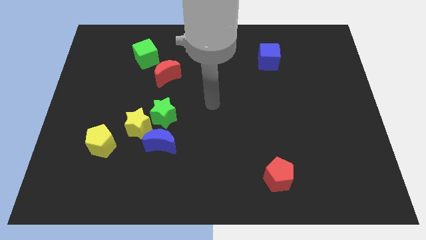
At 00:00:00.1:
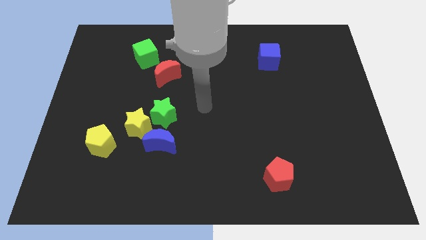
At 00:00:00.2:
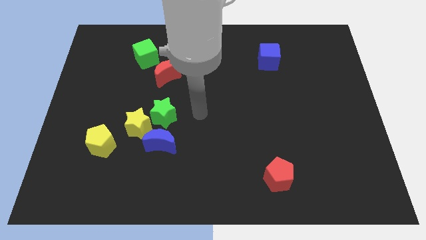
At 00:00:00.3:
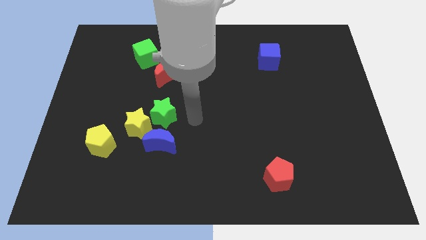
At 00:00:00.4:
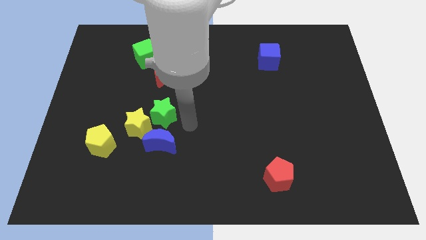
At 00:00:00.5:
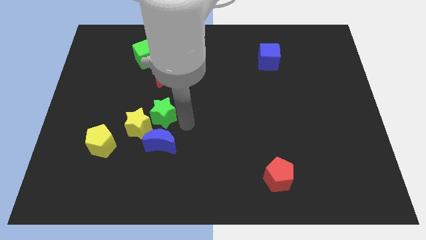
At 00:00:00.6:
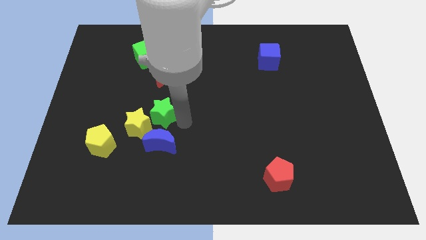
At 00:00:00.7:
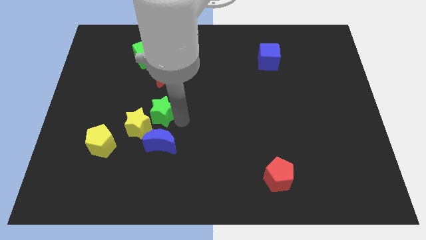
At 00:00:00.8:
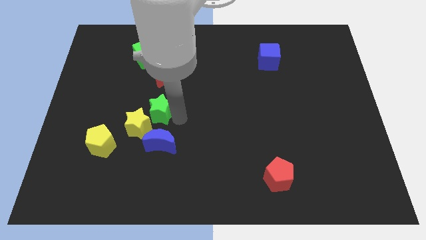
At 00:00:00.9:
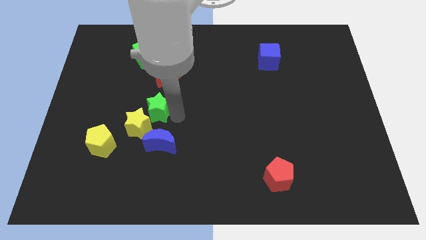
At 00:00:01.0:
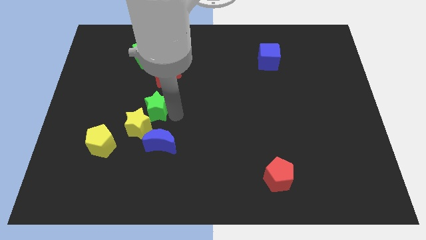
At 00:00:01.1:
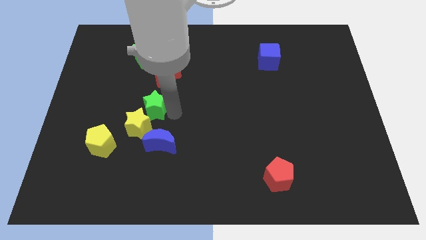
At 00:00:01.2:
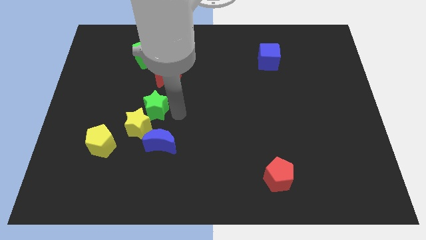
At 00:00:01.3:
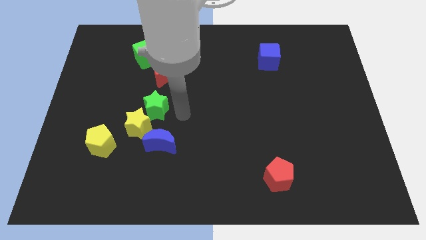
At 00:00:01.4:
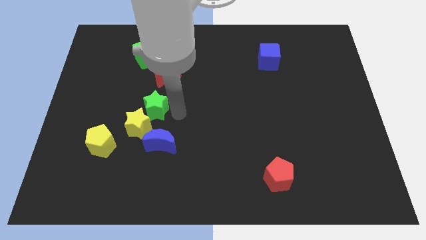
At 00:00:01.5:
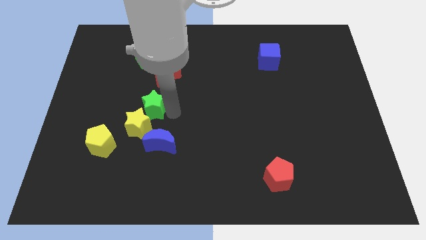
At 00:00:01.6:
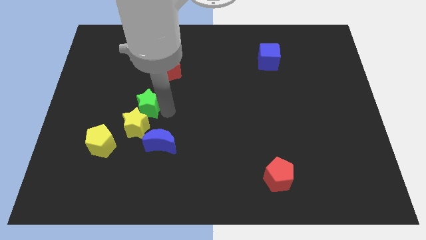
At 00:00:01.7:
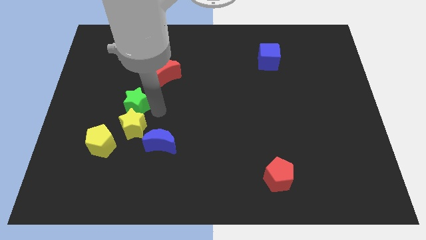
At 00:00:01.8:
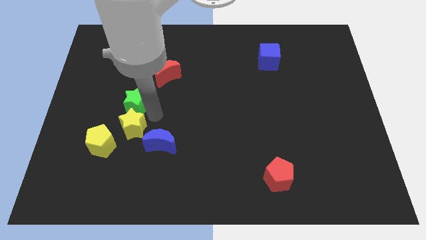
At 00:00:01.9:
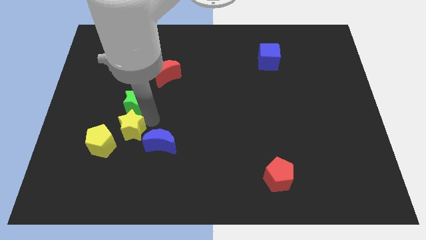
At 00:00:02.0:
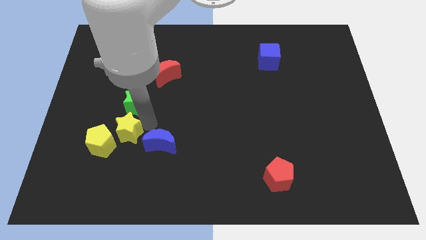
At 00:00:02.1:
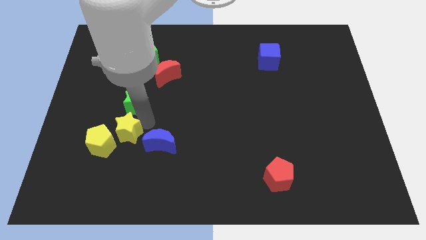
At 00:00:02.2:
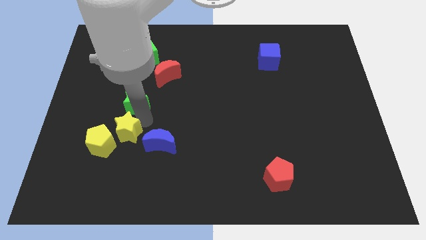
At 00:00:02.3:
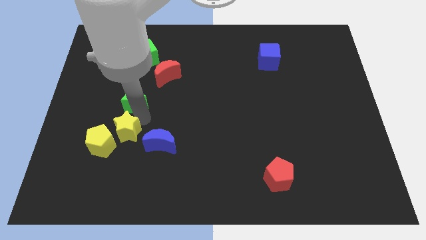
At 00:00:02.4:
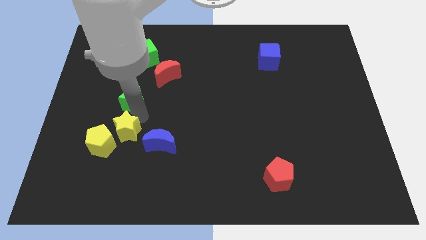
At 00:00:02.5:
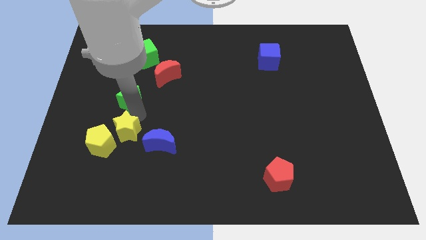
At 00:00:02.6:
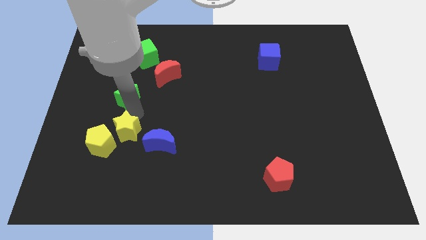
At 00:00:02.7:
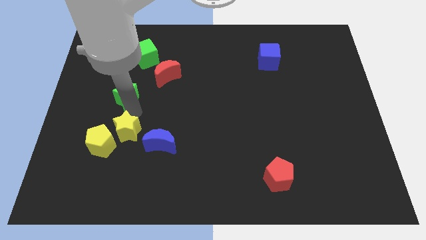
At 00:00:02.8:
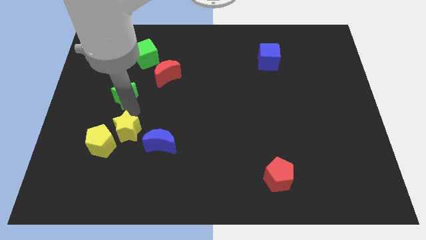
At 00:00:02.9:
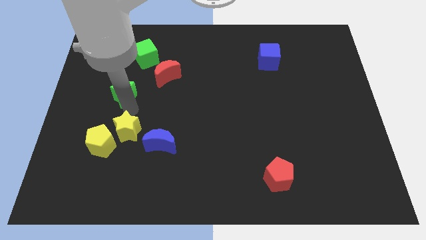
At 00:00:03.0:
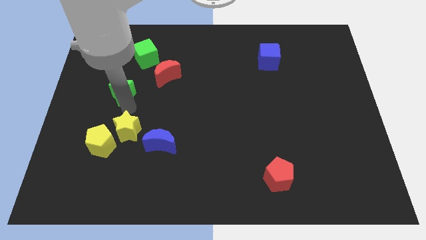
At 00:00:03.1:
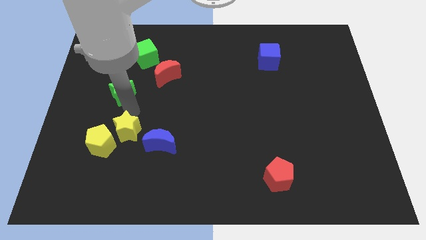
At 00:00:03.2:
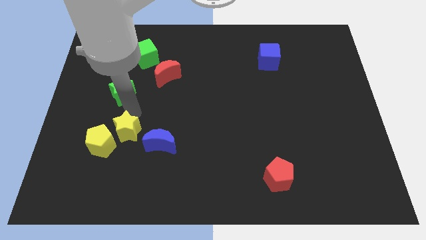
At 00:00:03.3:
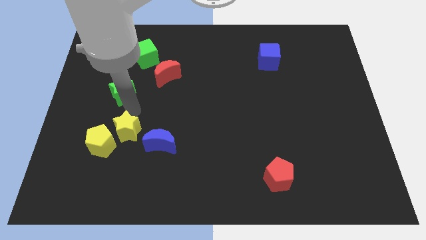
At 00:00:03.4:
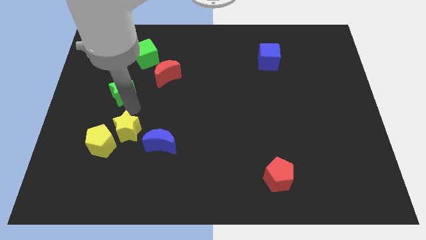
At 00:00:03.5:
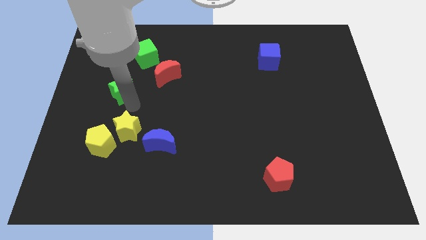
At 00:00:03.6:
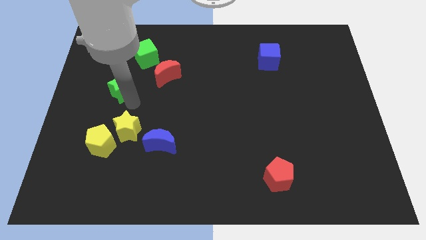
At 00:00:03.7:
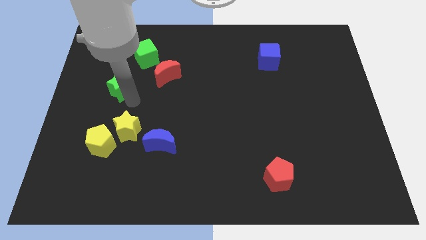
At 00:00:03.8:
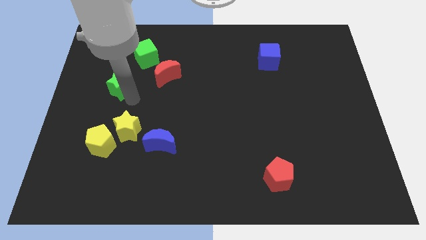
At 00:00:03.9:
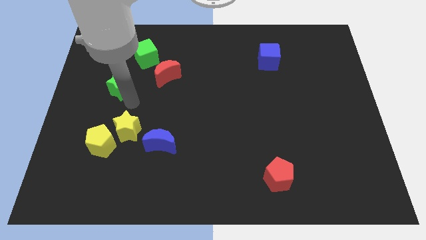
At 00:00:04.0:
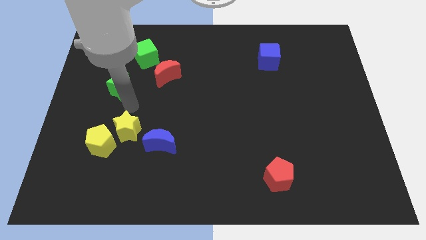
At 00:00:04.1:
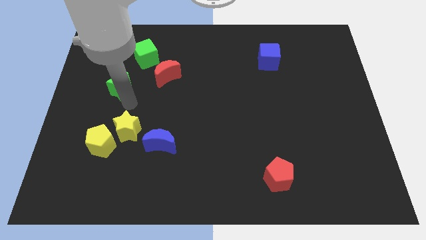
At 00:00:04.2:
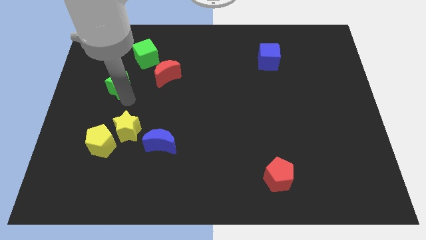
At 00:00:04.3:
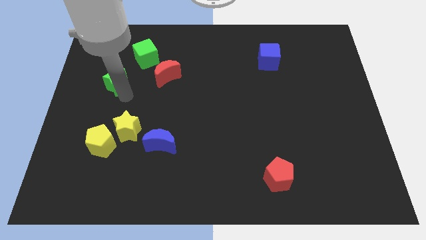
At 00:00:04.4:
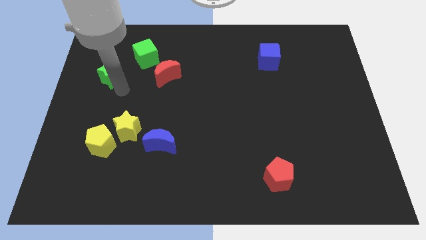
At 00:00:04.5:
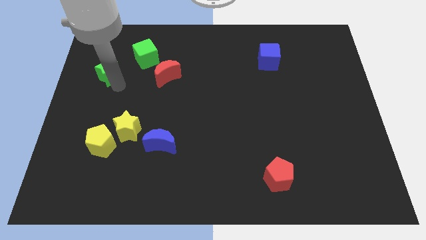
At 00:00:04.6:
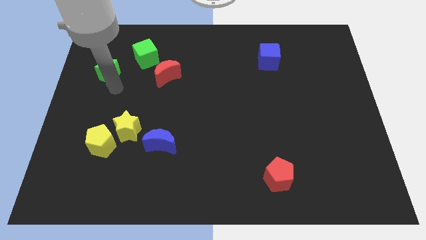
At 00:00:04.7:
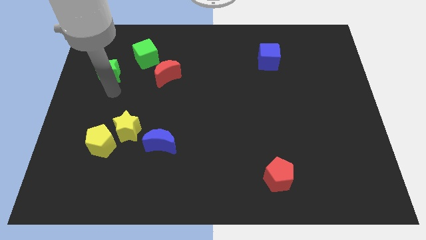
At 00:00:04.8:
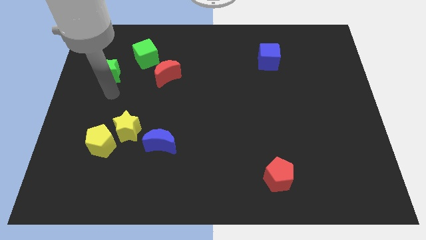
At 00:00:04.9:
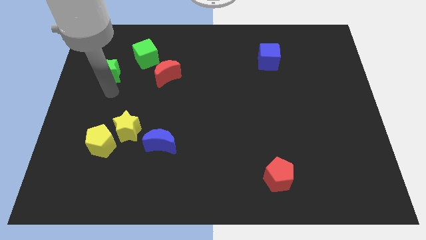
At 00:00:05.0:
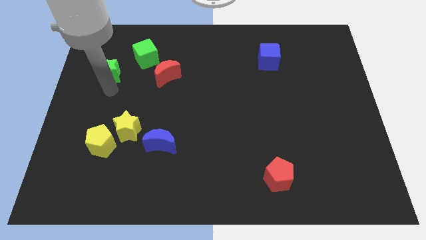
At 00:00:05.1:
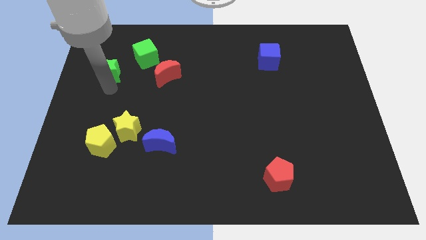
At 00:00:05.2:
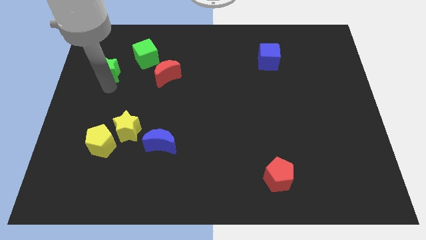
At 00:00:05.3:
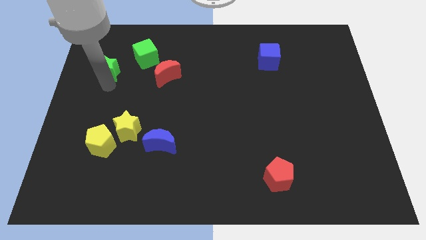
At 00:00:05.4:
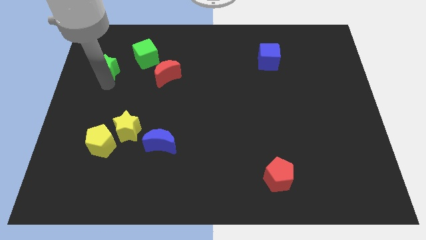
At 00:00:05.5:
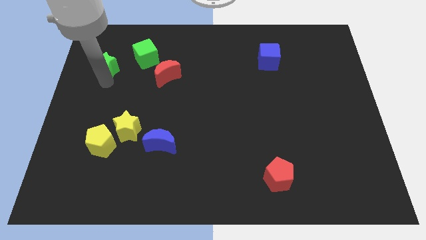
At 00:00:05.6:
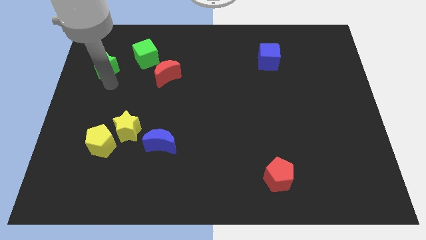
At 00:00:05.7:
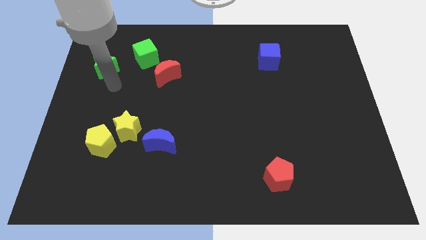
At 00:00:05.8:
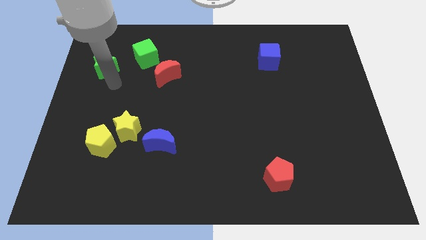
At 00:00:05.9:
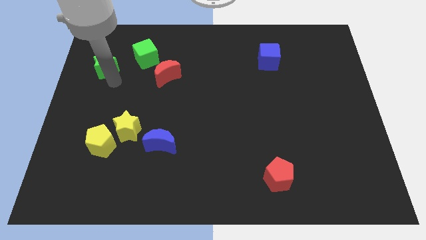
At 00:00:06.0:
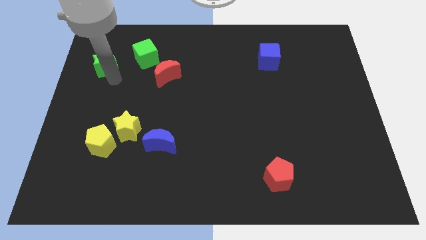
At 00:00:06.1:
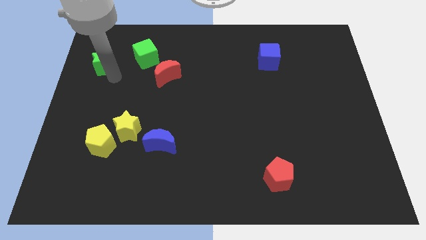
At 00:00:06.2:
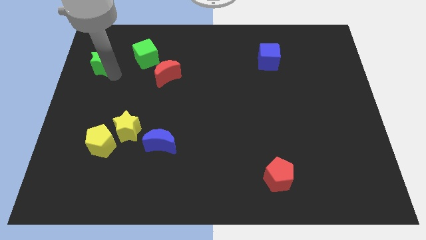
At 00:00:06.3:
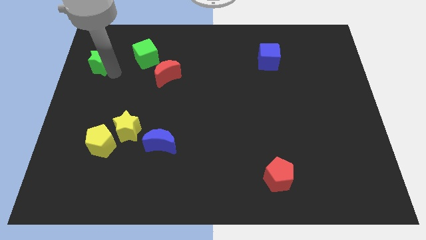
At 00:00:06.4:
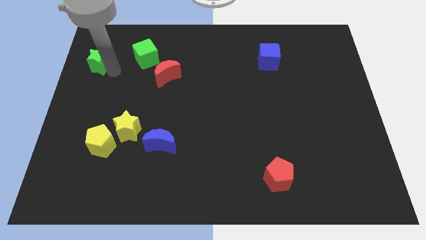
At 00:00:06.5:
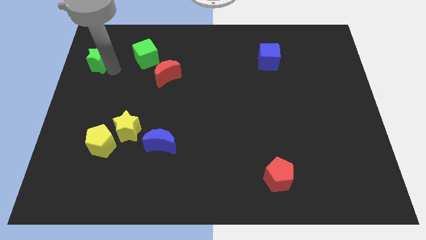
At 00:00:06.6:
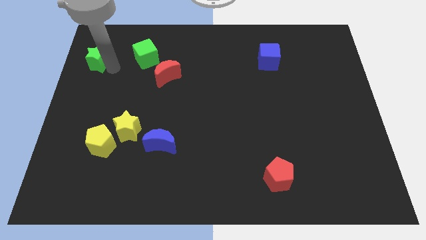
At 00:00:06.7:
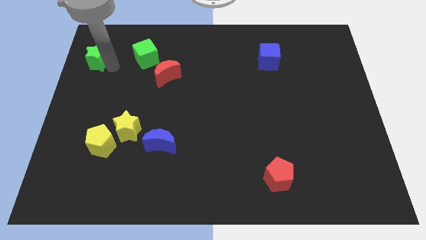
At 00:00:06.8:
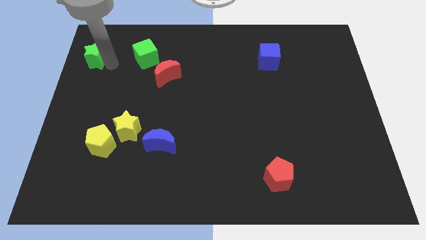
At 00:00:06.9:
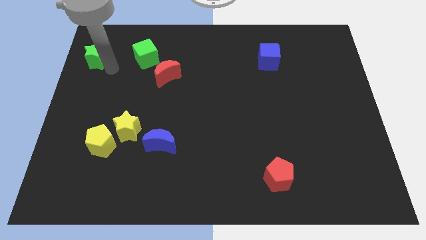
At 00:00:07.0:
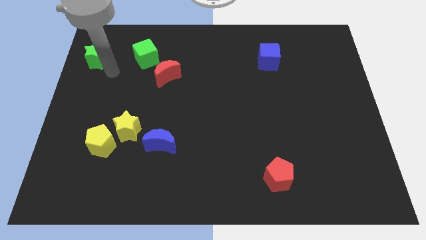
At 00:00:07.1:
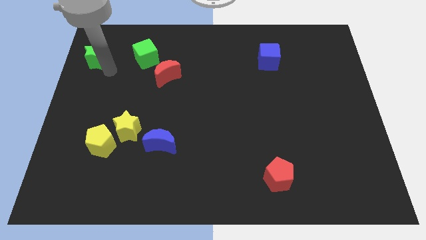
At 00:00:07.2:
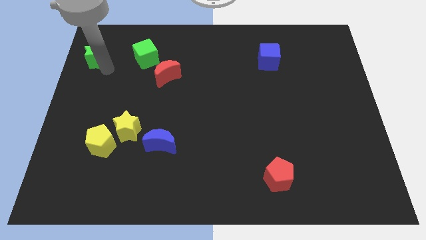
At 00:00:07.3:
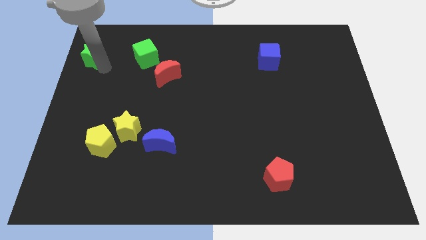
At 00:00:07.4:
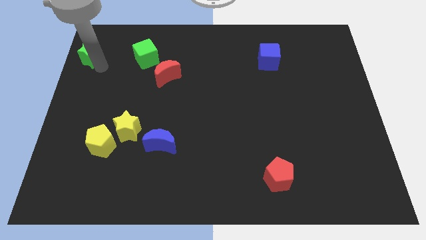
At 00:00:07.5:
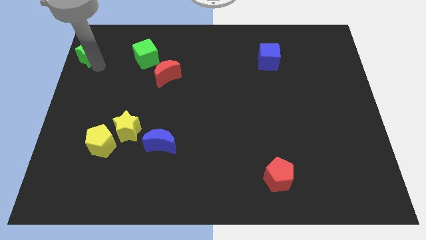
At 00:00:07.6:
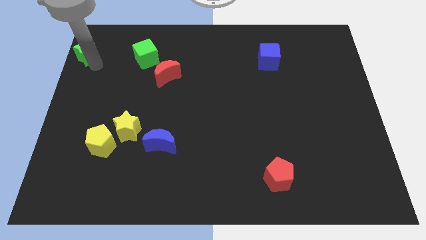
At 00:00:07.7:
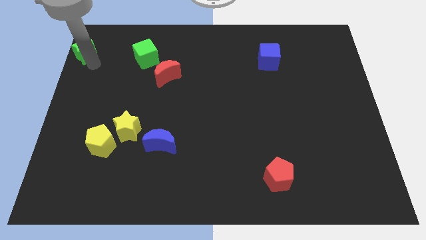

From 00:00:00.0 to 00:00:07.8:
push the green star to the top left of the board
